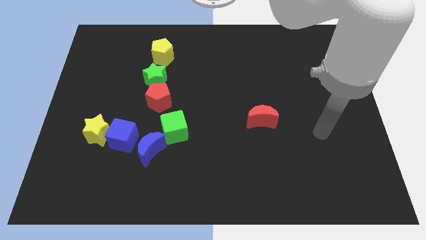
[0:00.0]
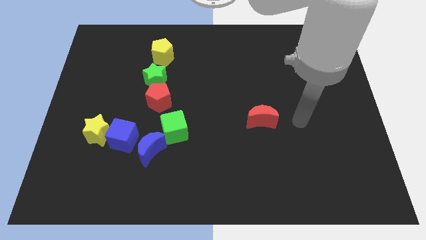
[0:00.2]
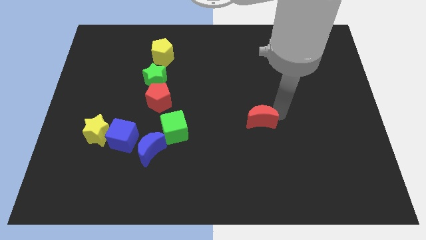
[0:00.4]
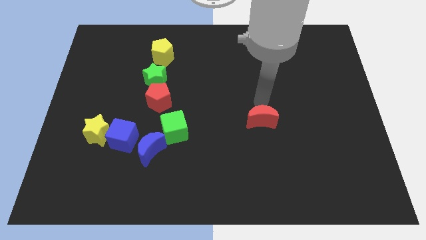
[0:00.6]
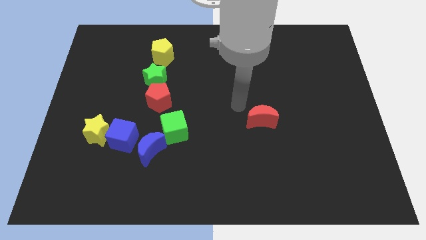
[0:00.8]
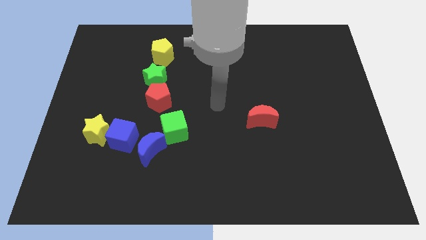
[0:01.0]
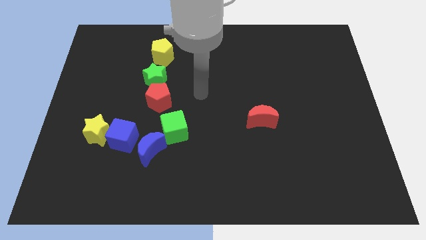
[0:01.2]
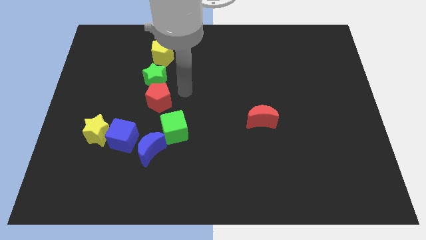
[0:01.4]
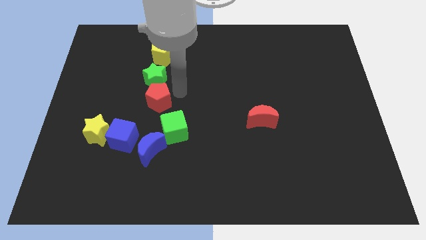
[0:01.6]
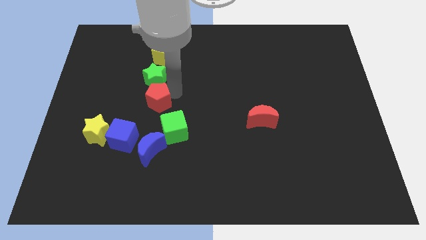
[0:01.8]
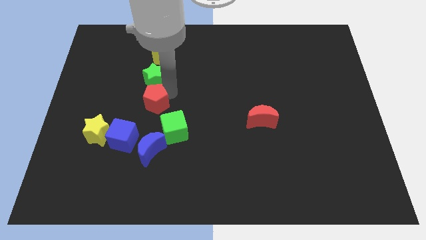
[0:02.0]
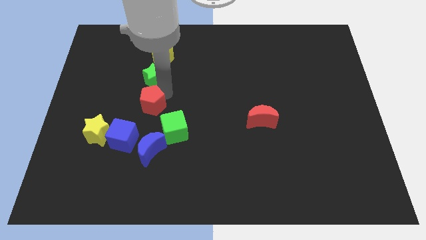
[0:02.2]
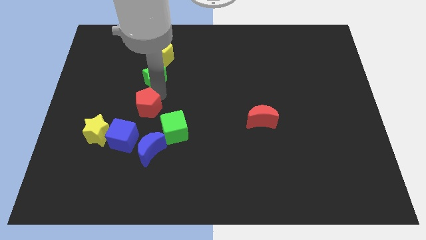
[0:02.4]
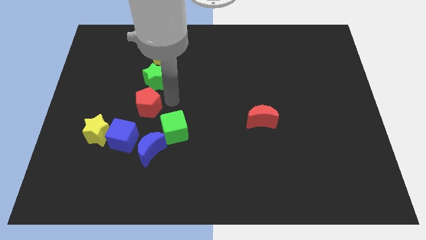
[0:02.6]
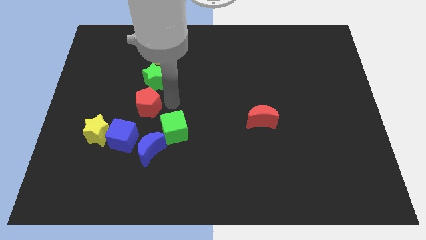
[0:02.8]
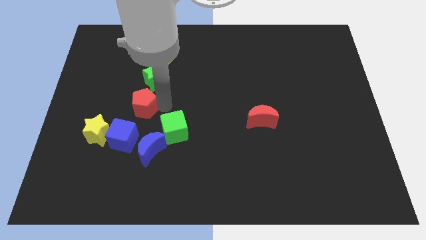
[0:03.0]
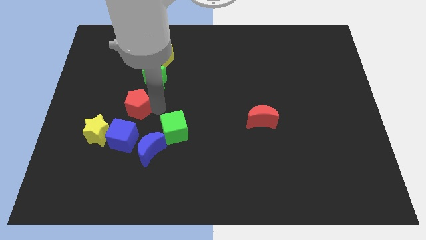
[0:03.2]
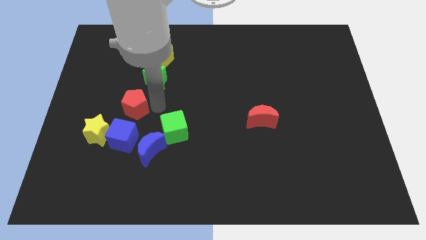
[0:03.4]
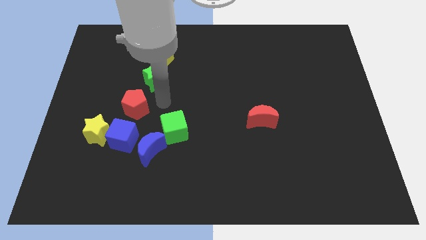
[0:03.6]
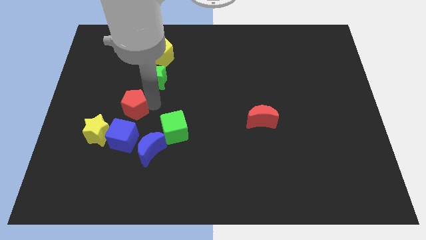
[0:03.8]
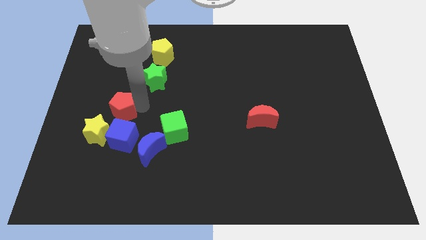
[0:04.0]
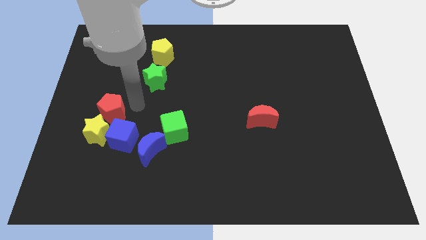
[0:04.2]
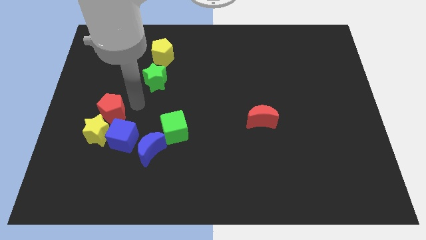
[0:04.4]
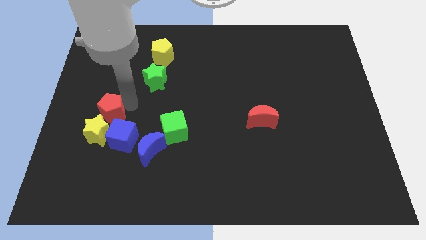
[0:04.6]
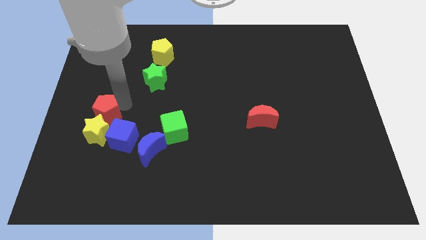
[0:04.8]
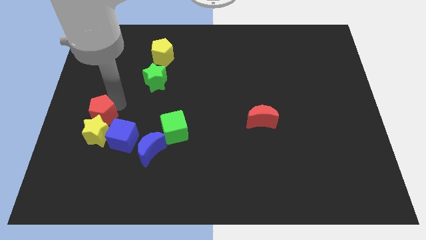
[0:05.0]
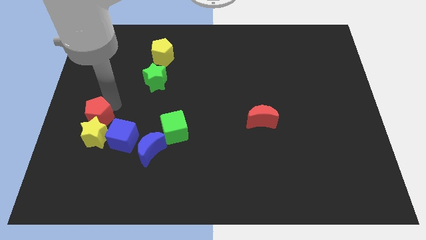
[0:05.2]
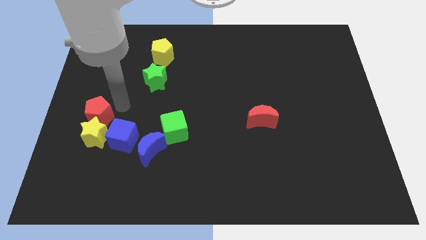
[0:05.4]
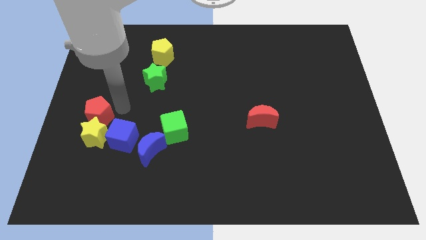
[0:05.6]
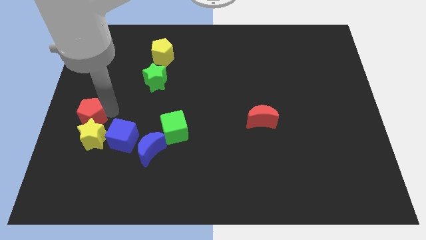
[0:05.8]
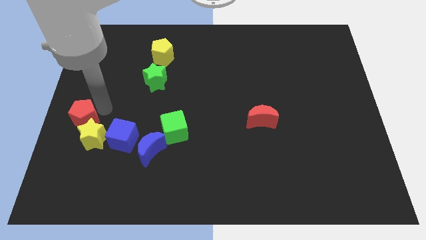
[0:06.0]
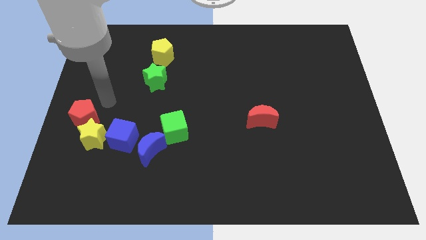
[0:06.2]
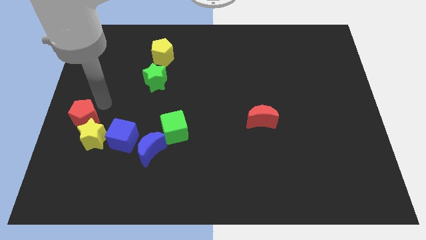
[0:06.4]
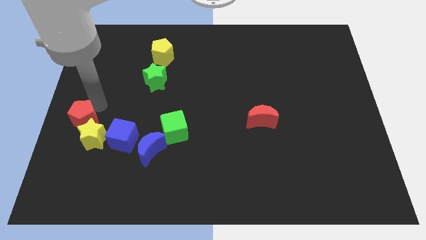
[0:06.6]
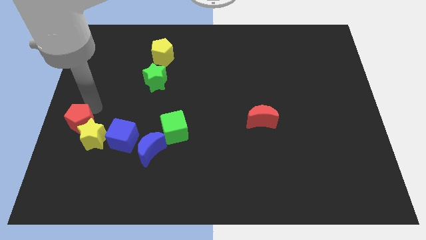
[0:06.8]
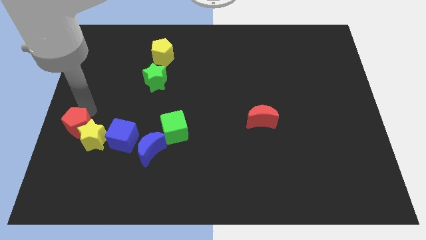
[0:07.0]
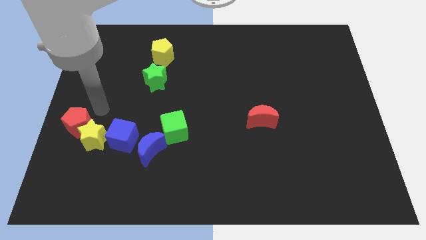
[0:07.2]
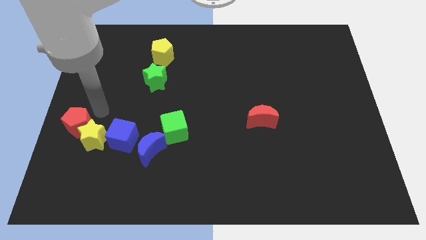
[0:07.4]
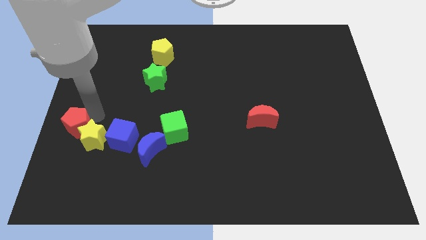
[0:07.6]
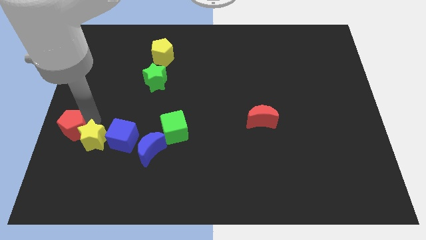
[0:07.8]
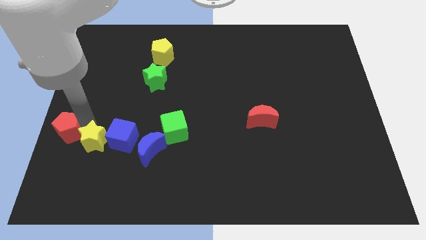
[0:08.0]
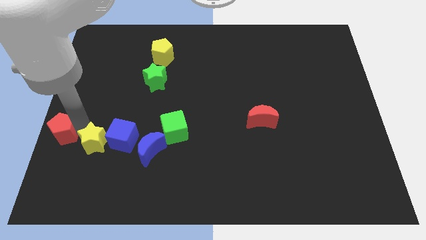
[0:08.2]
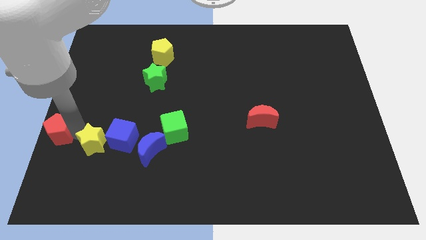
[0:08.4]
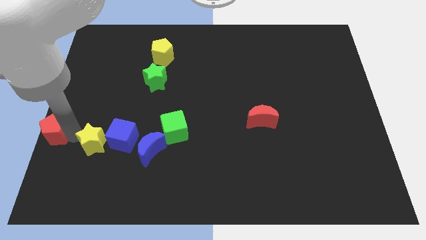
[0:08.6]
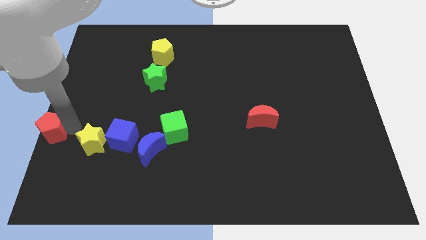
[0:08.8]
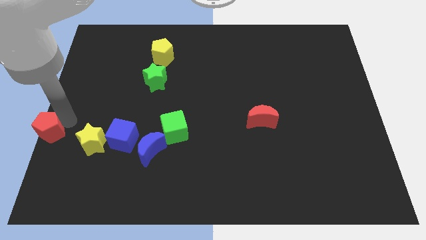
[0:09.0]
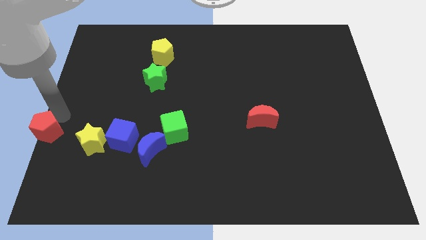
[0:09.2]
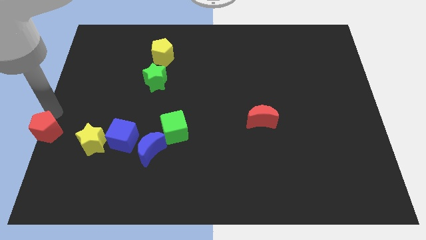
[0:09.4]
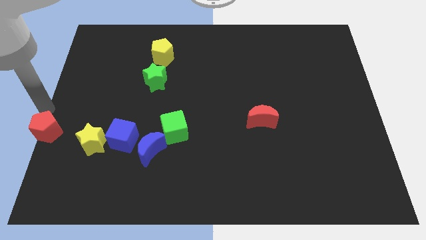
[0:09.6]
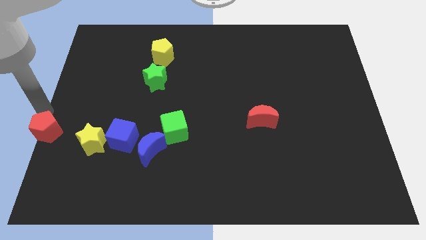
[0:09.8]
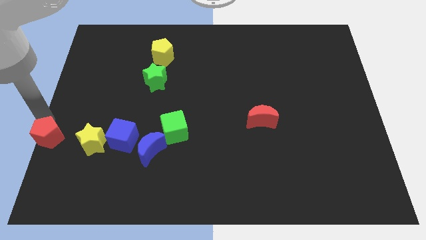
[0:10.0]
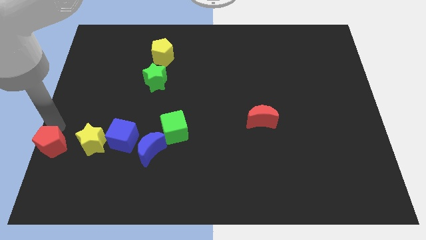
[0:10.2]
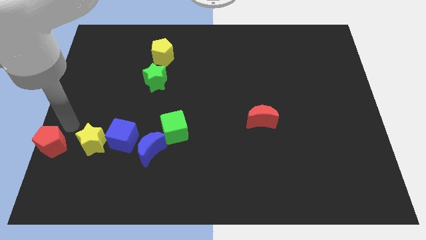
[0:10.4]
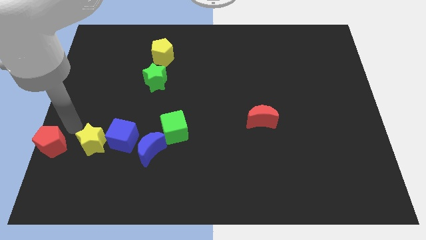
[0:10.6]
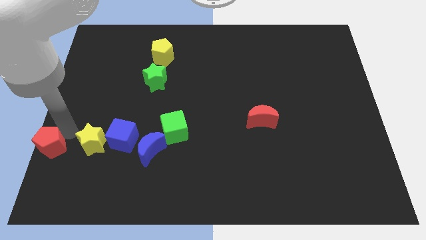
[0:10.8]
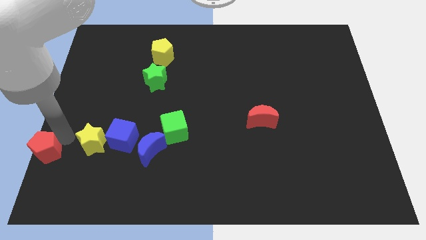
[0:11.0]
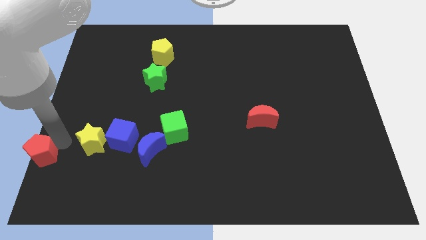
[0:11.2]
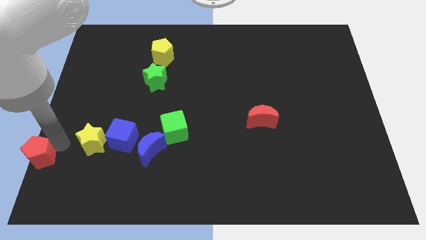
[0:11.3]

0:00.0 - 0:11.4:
put the red pentagon to the lower left corner

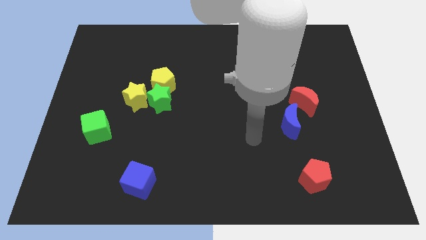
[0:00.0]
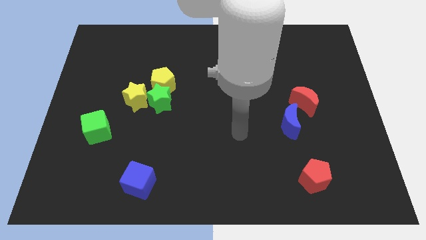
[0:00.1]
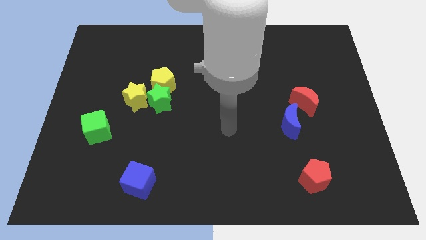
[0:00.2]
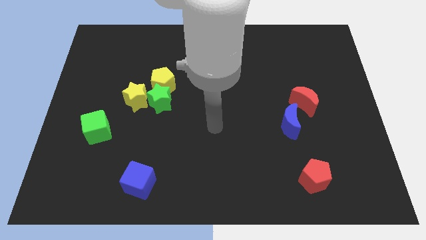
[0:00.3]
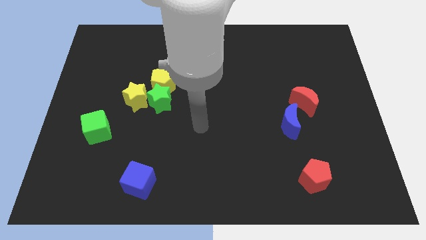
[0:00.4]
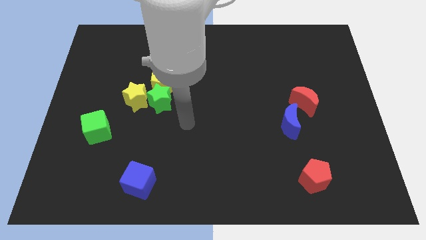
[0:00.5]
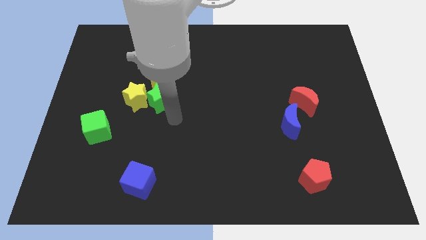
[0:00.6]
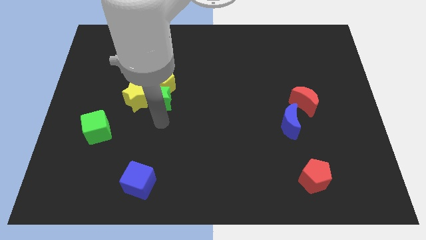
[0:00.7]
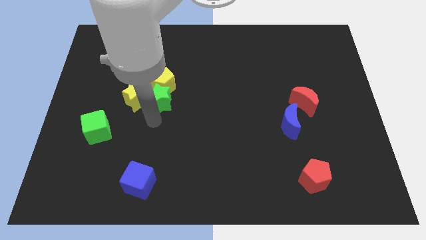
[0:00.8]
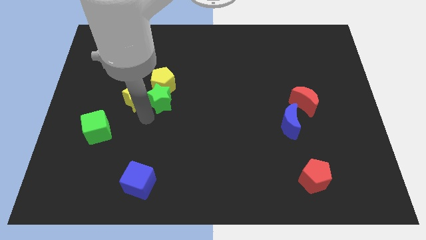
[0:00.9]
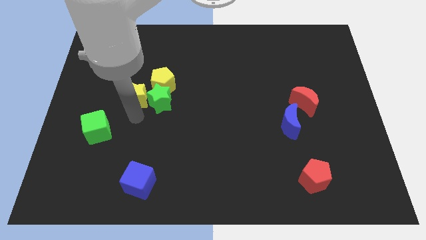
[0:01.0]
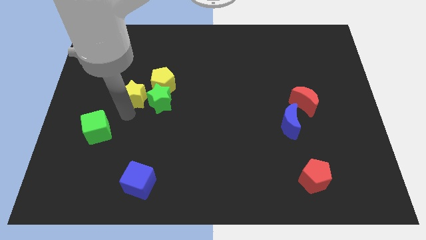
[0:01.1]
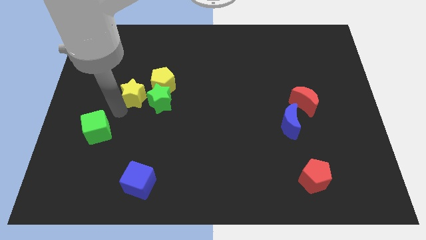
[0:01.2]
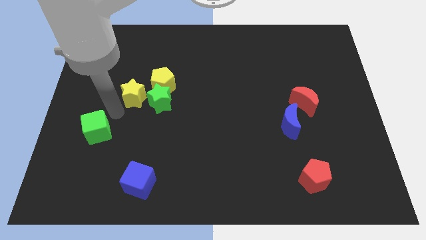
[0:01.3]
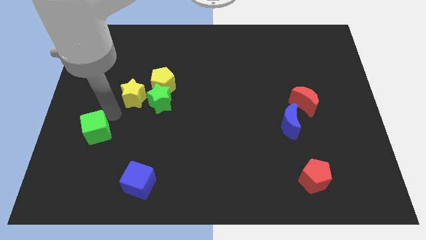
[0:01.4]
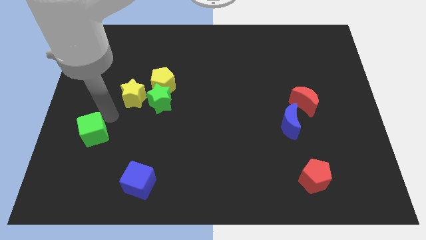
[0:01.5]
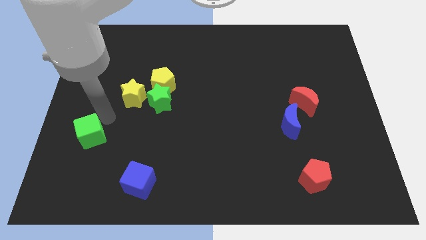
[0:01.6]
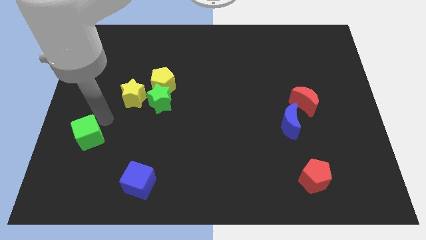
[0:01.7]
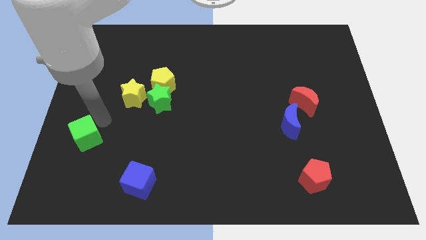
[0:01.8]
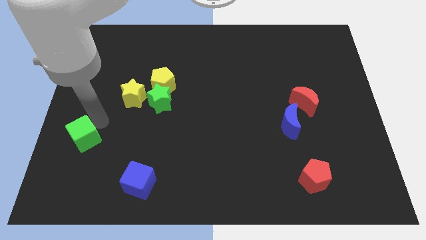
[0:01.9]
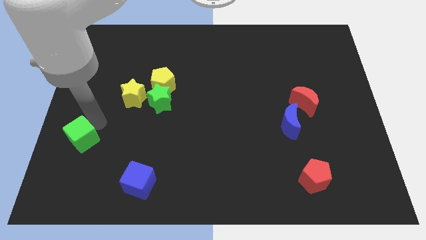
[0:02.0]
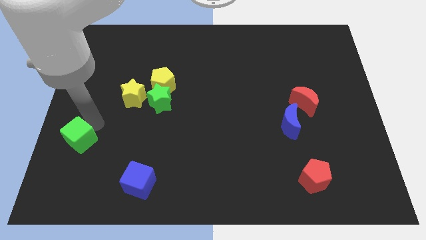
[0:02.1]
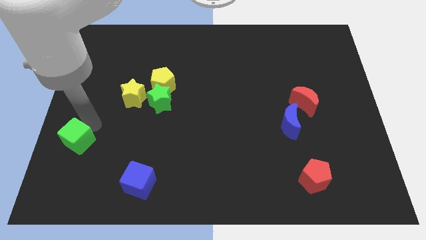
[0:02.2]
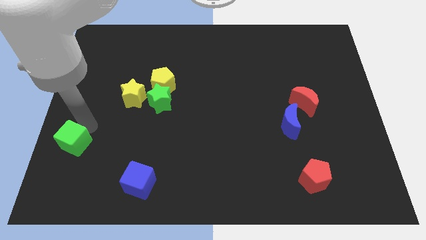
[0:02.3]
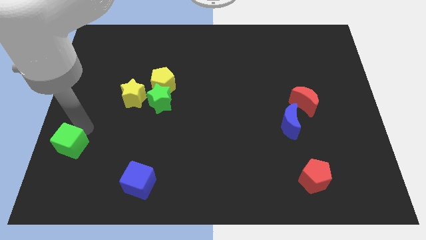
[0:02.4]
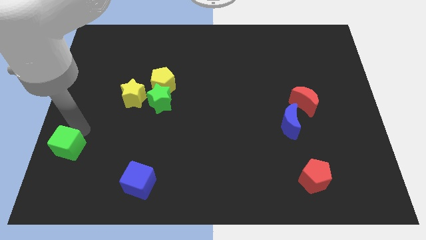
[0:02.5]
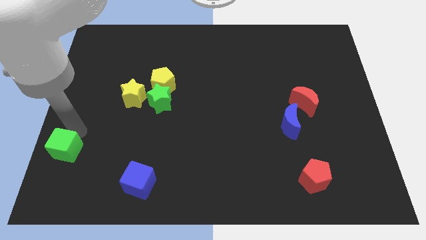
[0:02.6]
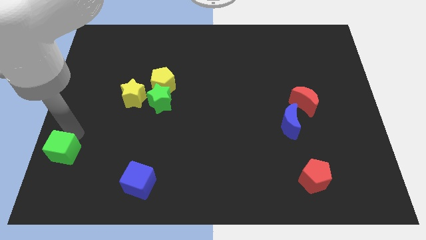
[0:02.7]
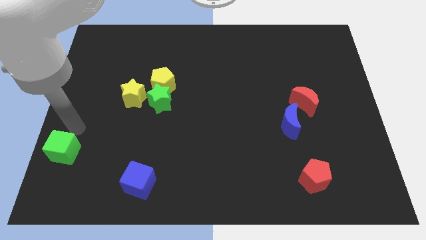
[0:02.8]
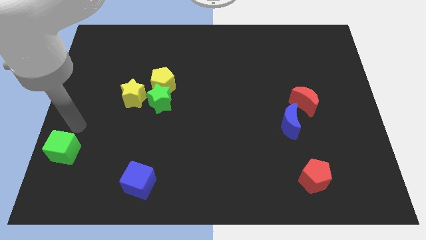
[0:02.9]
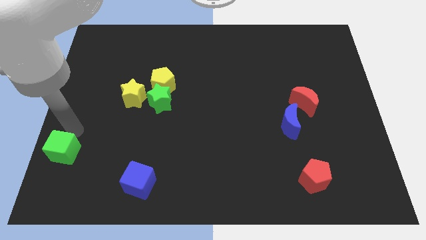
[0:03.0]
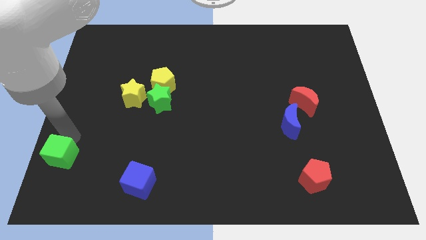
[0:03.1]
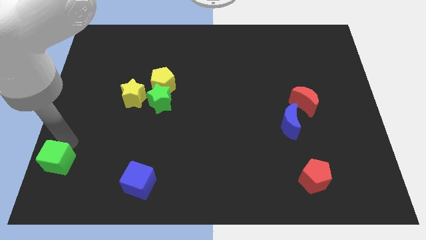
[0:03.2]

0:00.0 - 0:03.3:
move the green cube to the bottom left corner
